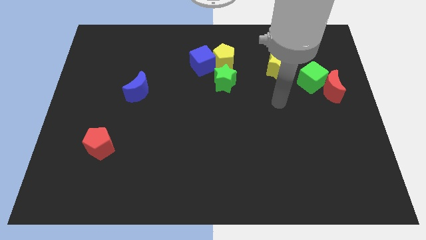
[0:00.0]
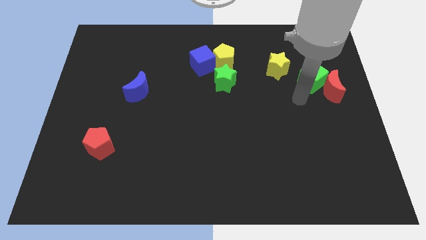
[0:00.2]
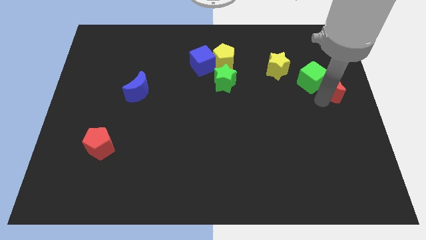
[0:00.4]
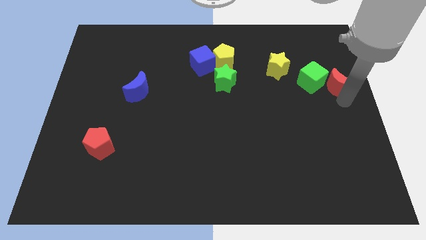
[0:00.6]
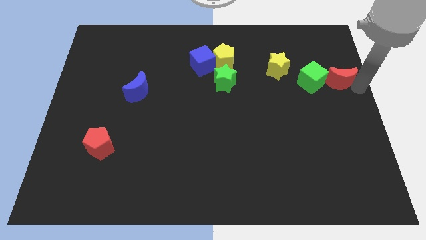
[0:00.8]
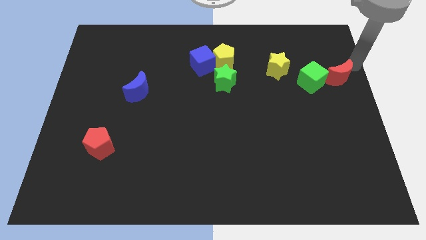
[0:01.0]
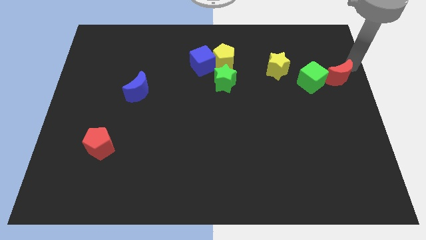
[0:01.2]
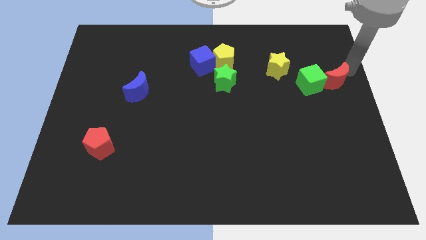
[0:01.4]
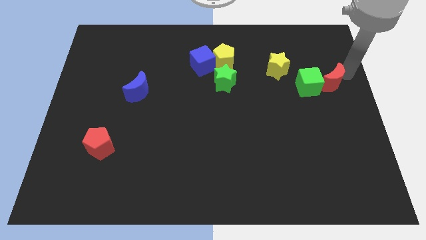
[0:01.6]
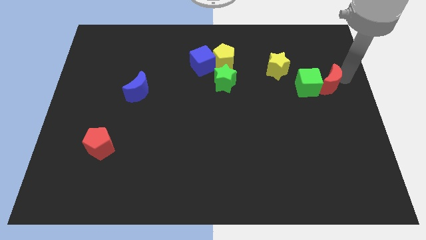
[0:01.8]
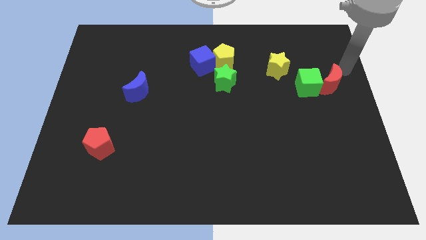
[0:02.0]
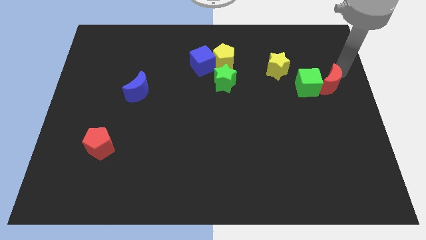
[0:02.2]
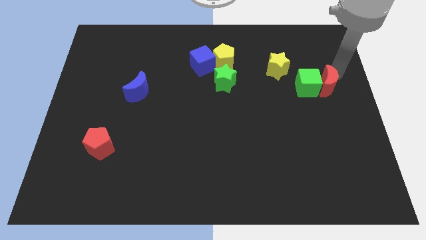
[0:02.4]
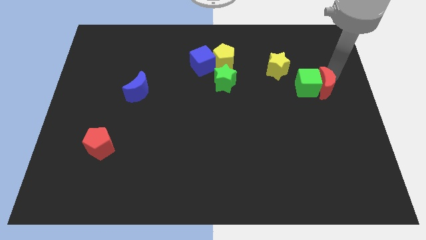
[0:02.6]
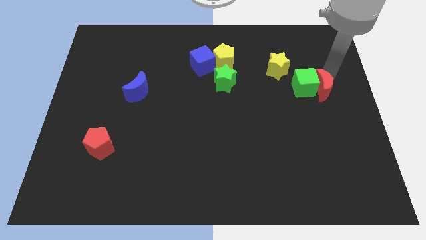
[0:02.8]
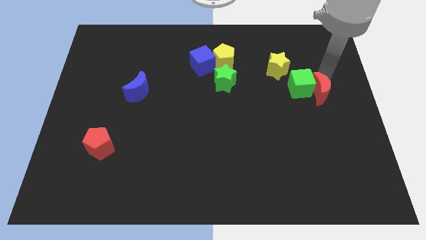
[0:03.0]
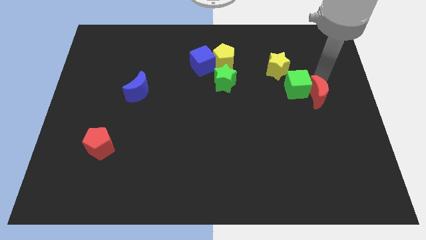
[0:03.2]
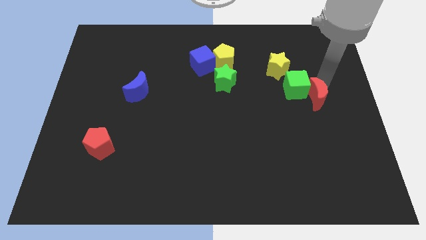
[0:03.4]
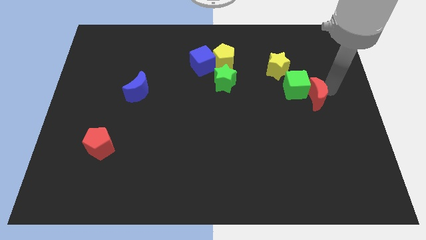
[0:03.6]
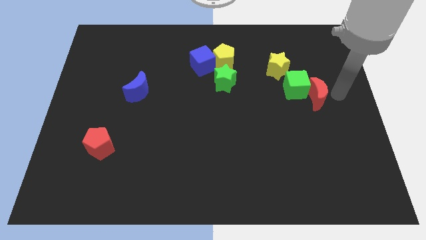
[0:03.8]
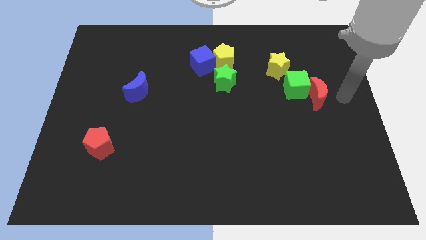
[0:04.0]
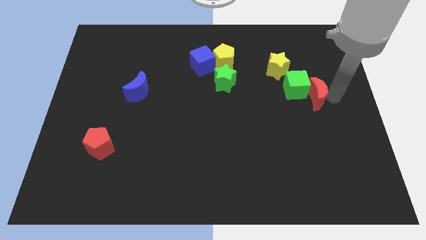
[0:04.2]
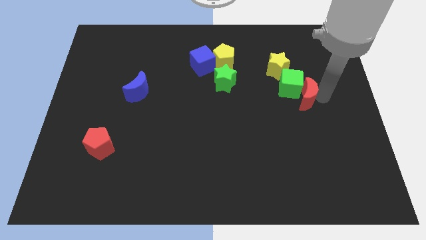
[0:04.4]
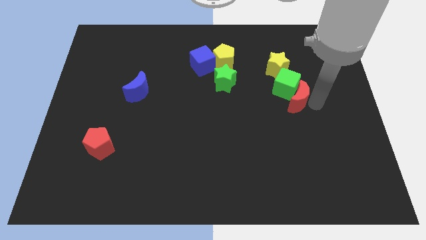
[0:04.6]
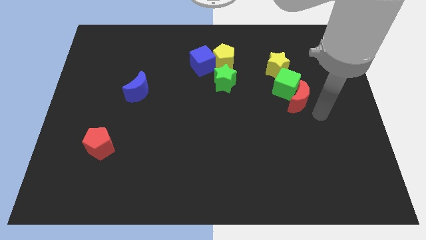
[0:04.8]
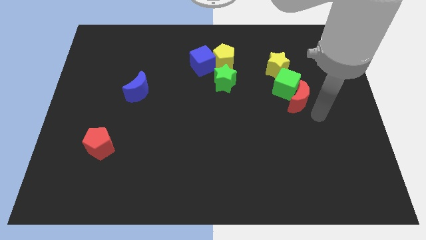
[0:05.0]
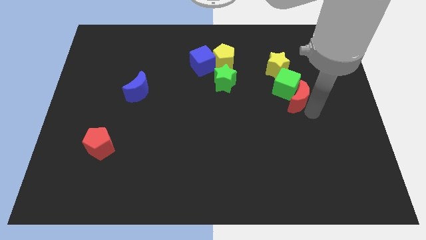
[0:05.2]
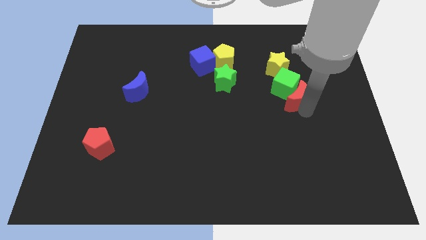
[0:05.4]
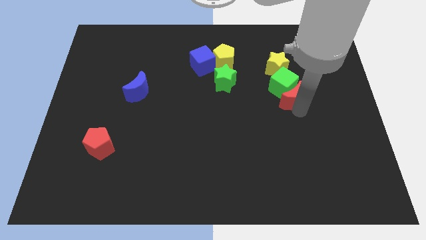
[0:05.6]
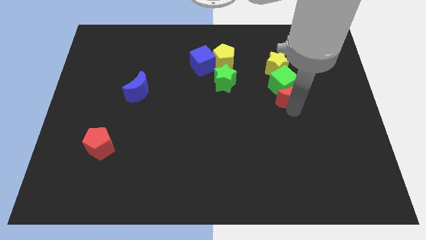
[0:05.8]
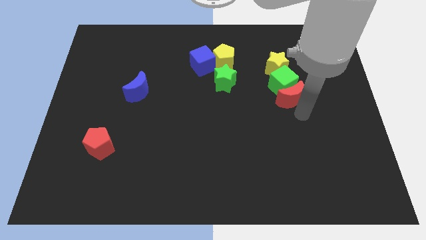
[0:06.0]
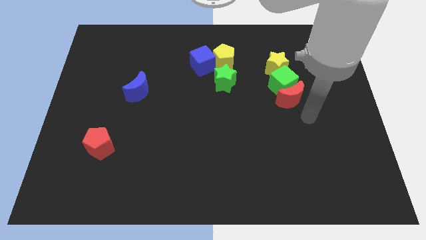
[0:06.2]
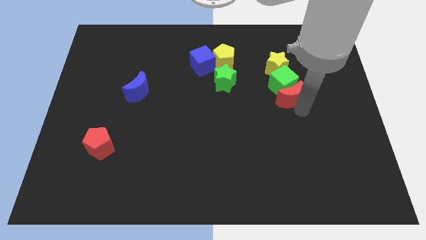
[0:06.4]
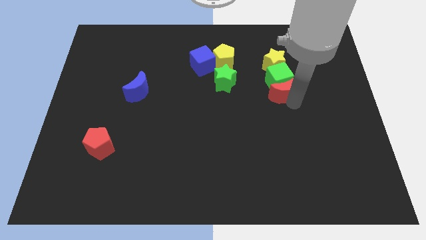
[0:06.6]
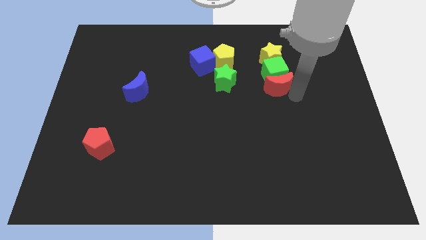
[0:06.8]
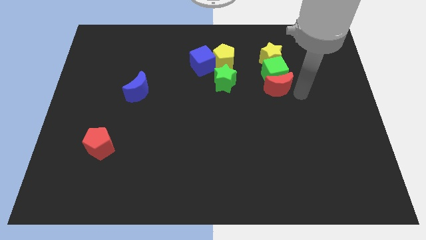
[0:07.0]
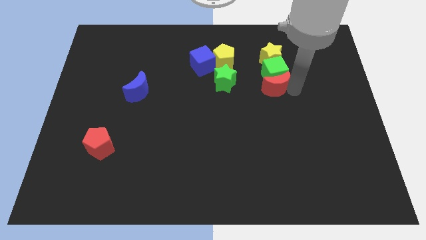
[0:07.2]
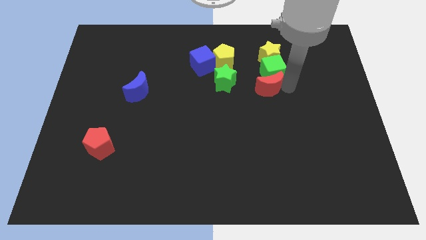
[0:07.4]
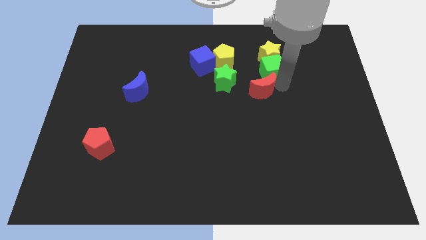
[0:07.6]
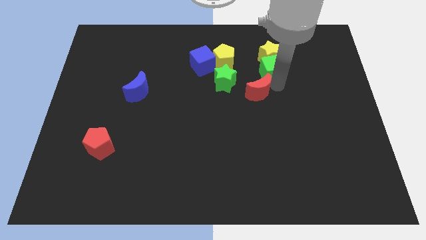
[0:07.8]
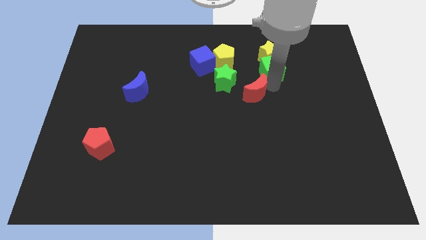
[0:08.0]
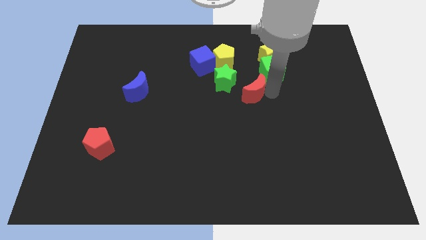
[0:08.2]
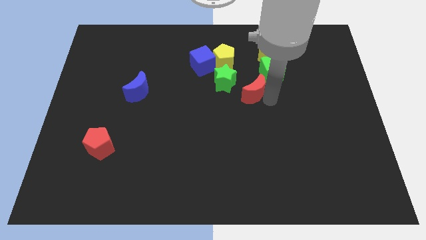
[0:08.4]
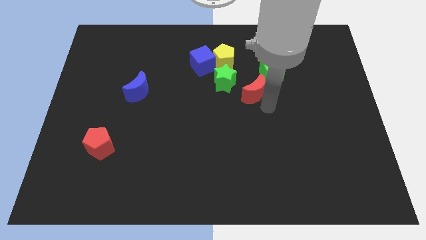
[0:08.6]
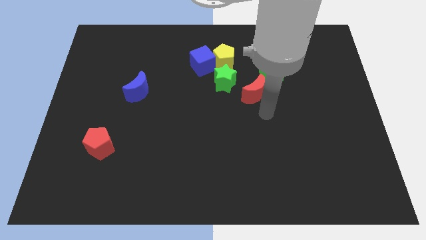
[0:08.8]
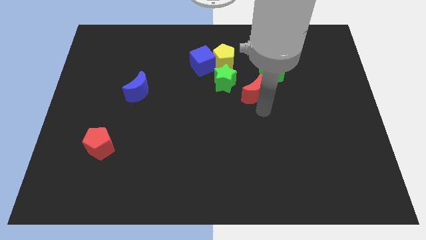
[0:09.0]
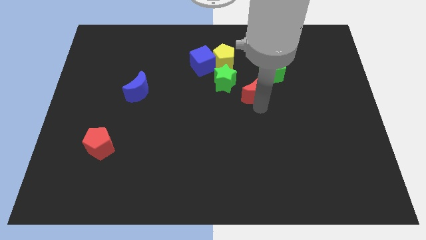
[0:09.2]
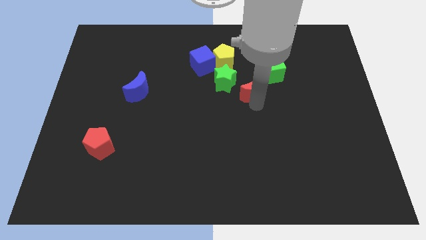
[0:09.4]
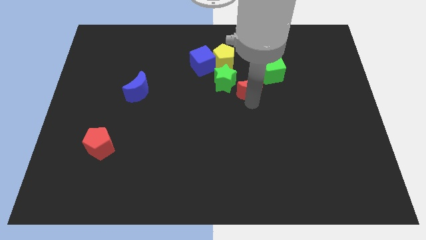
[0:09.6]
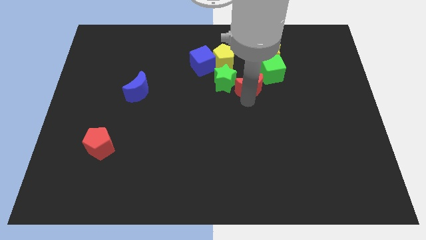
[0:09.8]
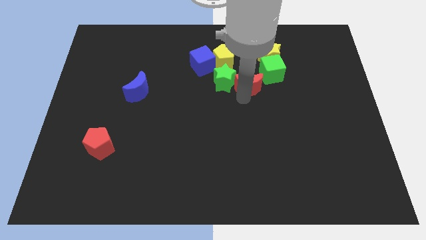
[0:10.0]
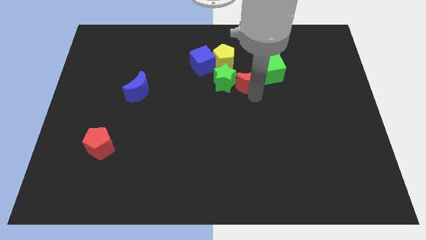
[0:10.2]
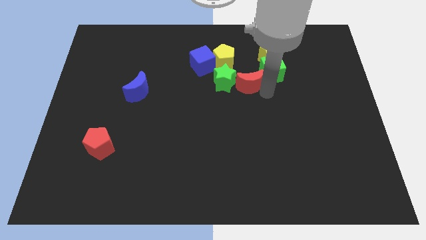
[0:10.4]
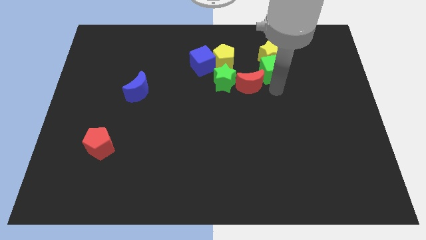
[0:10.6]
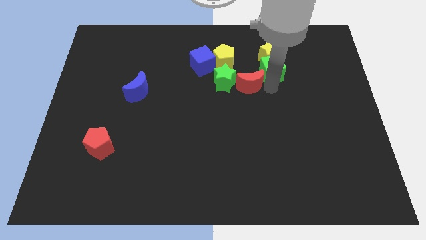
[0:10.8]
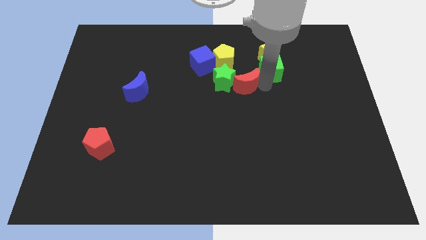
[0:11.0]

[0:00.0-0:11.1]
slide the red moon next to the green star

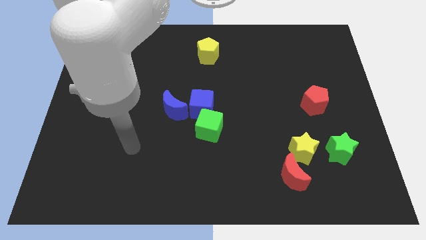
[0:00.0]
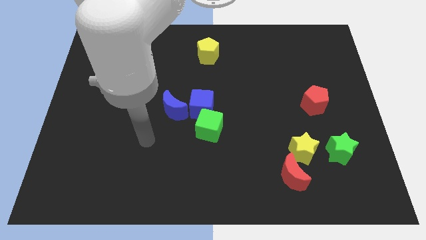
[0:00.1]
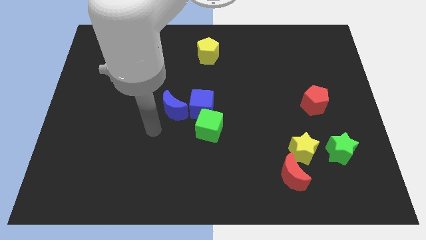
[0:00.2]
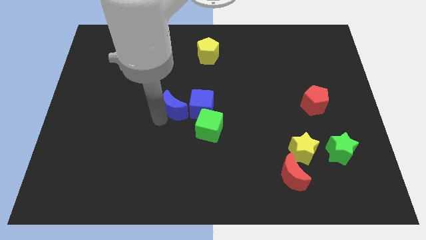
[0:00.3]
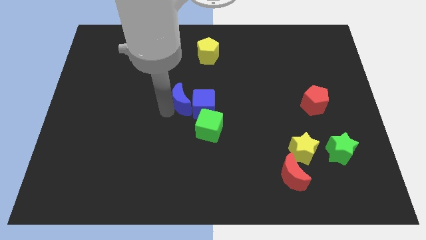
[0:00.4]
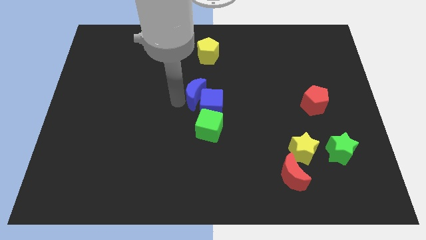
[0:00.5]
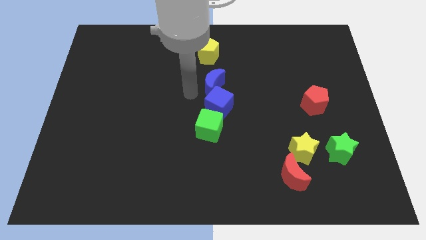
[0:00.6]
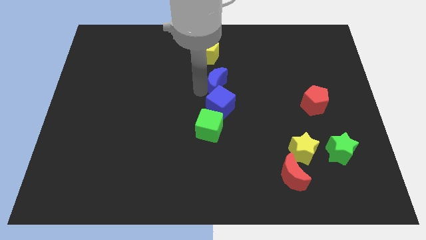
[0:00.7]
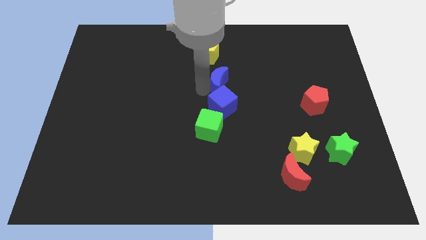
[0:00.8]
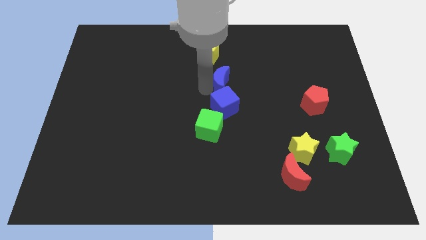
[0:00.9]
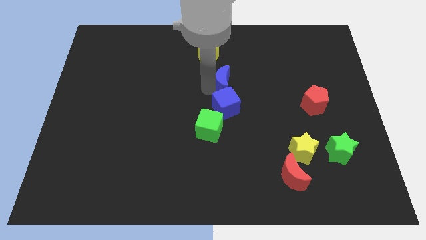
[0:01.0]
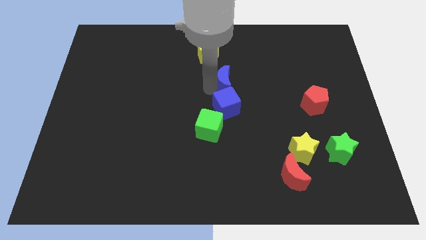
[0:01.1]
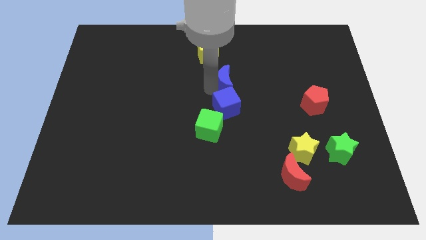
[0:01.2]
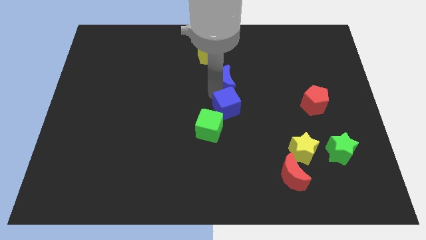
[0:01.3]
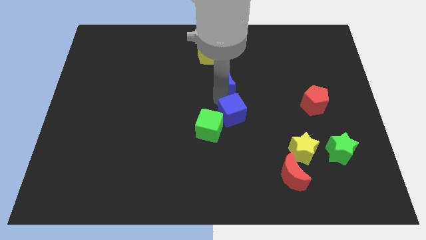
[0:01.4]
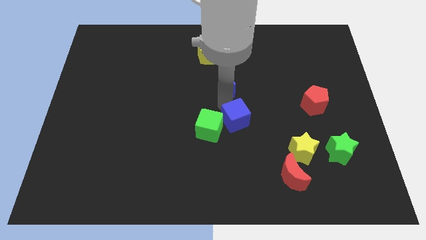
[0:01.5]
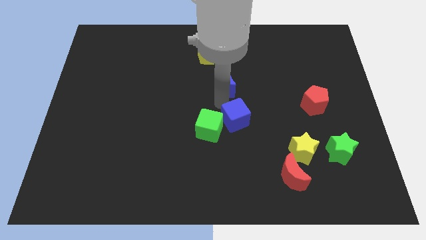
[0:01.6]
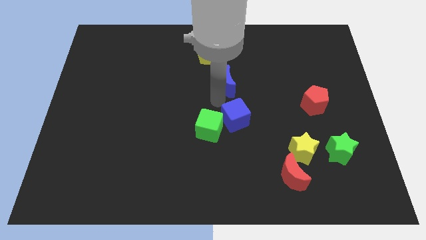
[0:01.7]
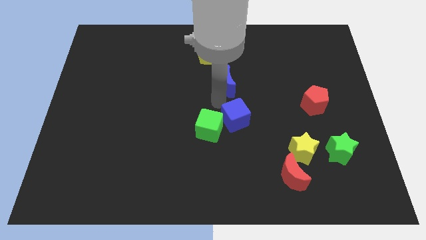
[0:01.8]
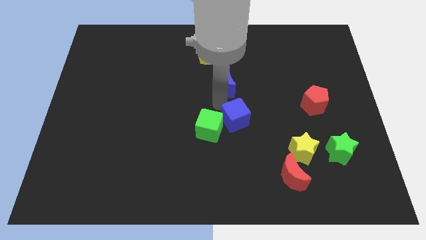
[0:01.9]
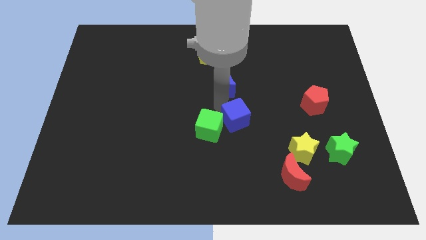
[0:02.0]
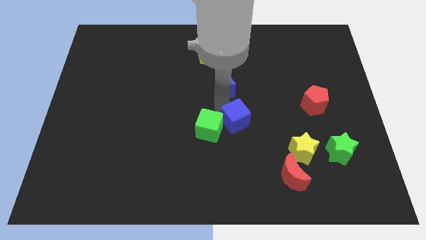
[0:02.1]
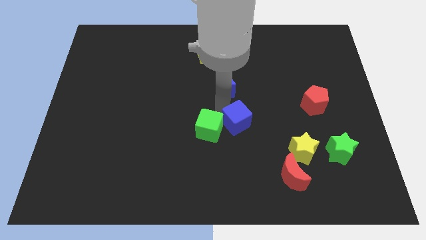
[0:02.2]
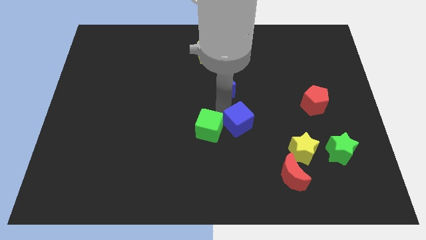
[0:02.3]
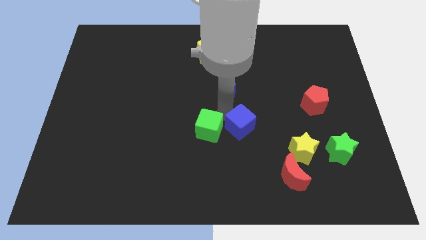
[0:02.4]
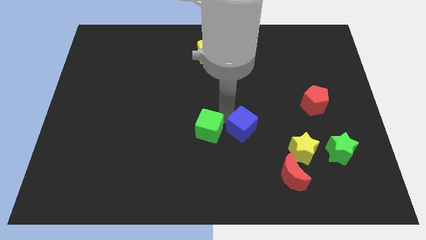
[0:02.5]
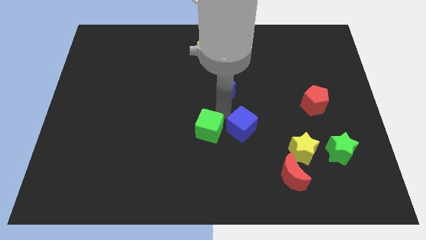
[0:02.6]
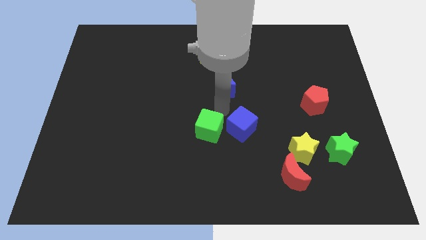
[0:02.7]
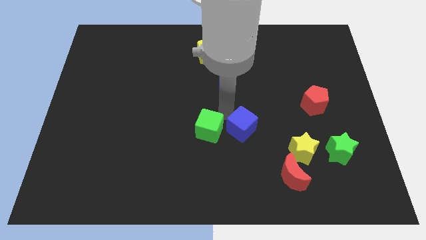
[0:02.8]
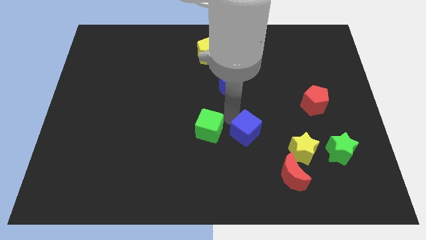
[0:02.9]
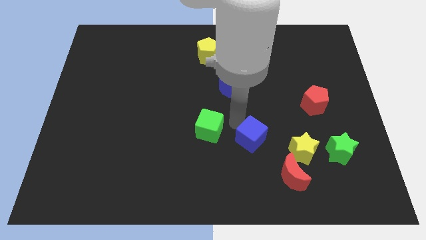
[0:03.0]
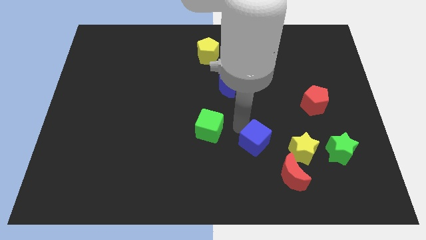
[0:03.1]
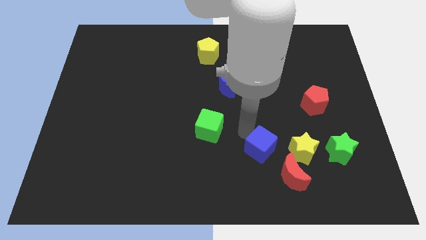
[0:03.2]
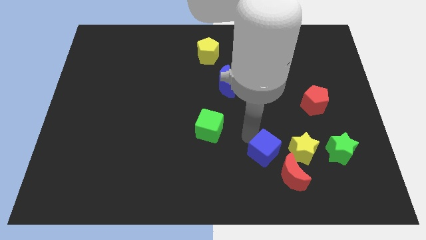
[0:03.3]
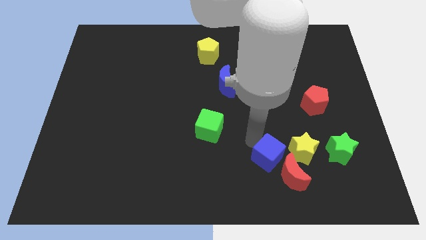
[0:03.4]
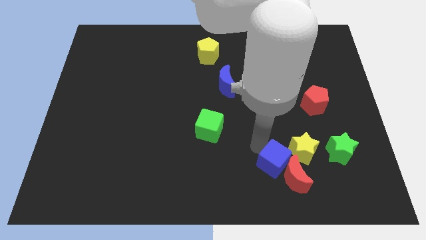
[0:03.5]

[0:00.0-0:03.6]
push the blue cube close to the red moon
